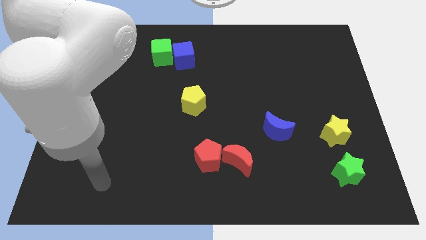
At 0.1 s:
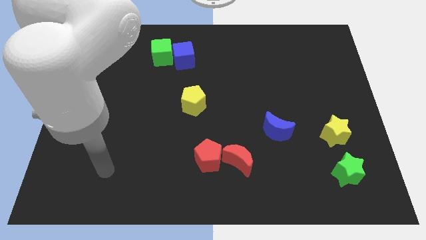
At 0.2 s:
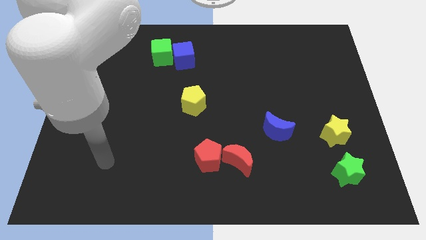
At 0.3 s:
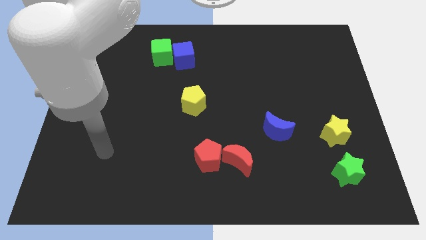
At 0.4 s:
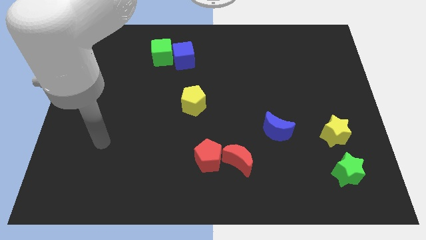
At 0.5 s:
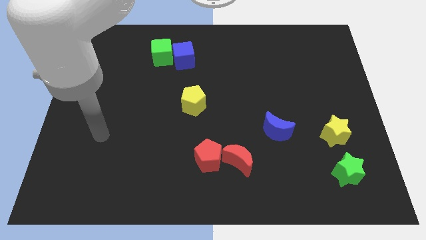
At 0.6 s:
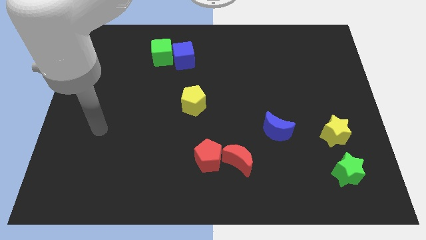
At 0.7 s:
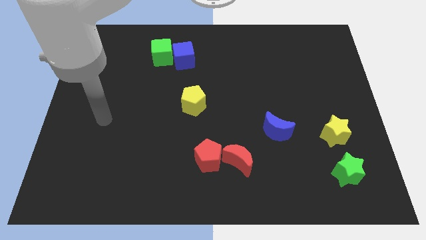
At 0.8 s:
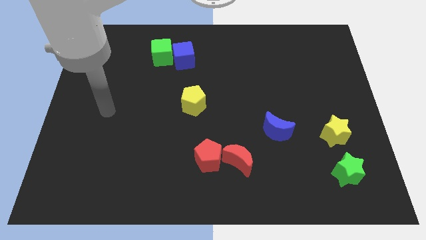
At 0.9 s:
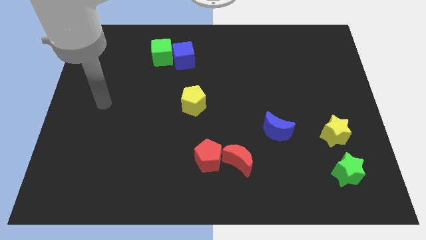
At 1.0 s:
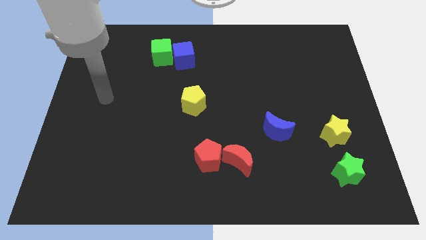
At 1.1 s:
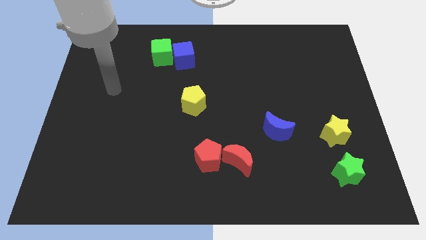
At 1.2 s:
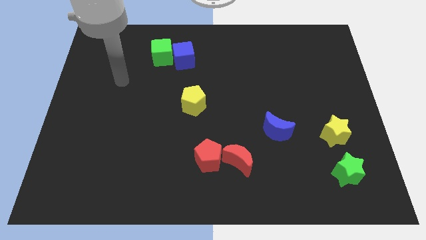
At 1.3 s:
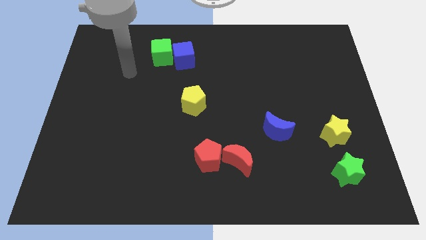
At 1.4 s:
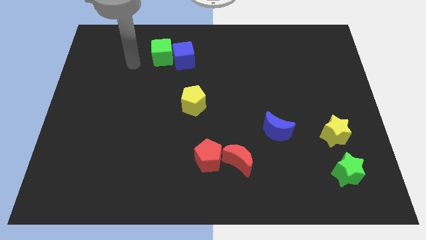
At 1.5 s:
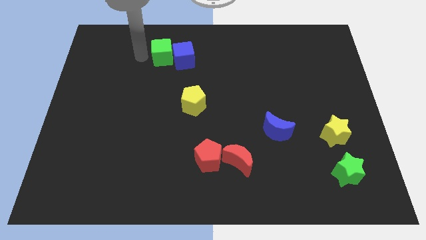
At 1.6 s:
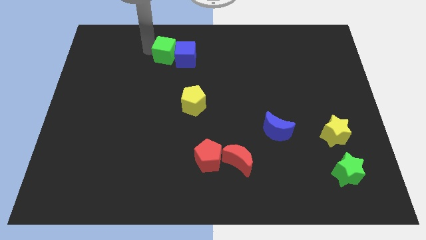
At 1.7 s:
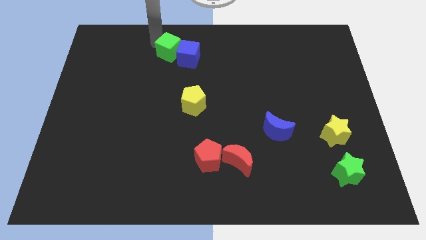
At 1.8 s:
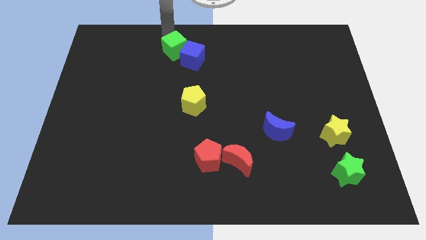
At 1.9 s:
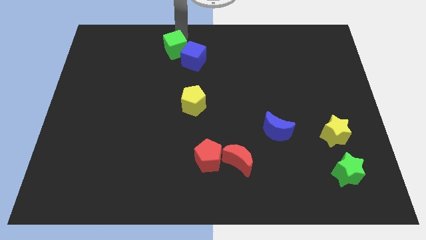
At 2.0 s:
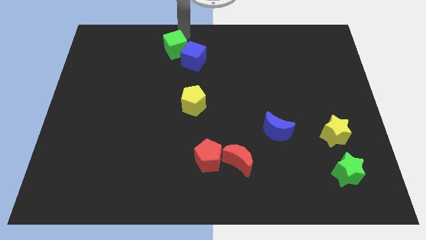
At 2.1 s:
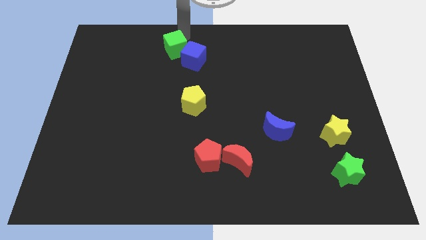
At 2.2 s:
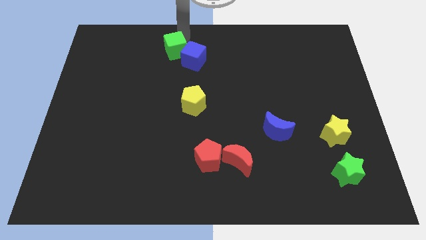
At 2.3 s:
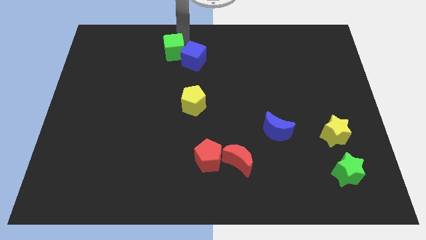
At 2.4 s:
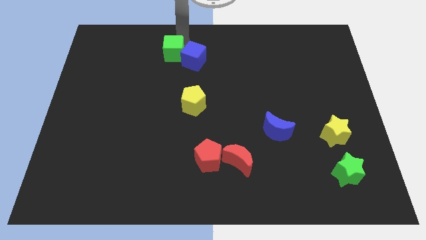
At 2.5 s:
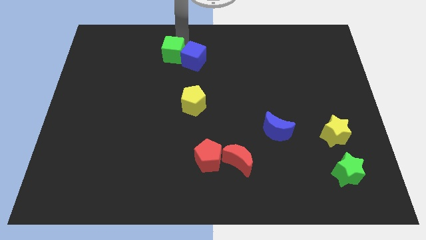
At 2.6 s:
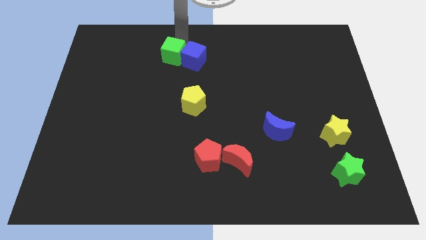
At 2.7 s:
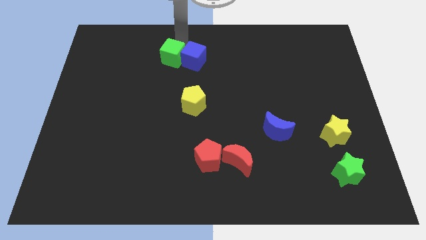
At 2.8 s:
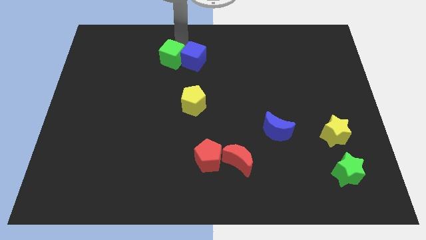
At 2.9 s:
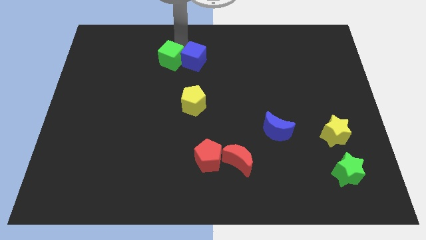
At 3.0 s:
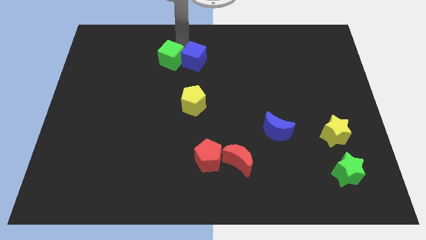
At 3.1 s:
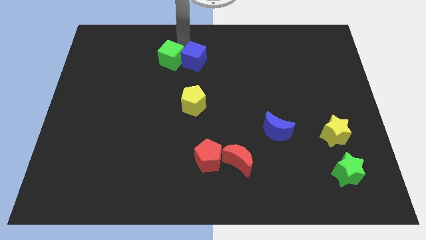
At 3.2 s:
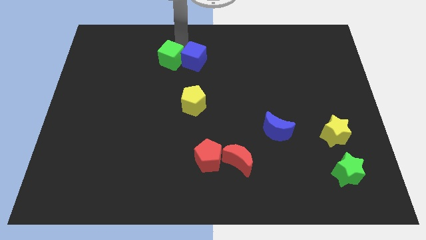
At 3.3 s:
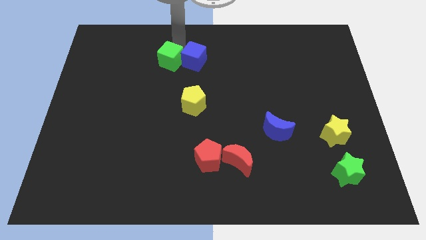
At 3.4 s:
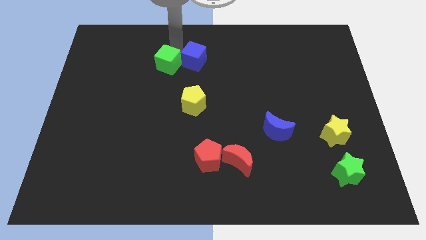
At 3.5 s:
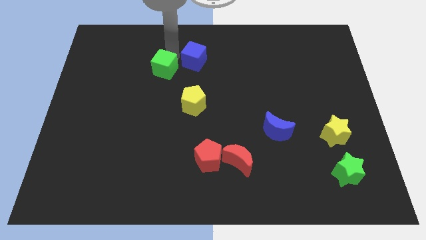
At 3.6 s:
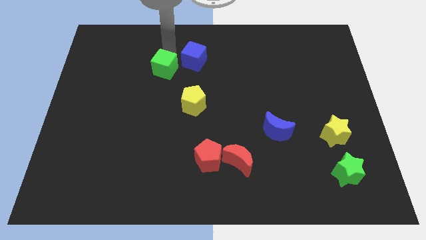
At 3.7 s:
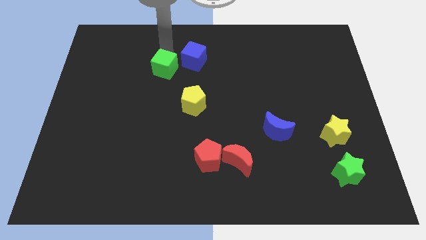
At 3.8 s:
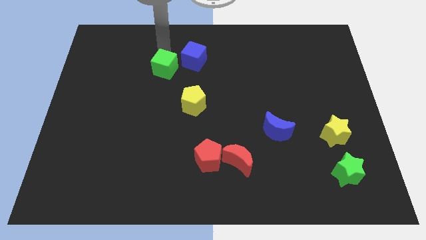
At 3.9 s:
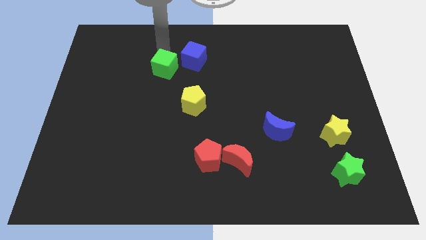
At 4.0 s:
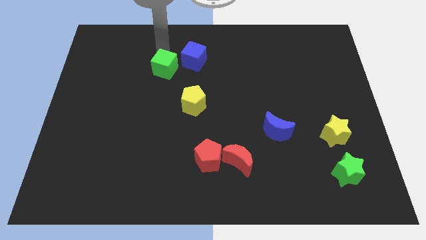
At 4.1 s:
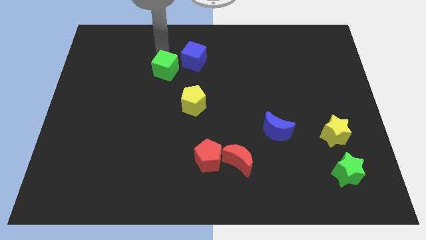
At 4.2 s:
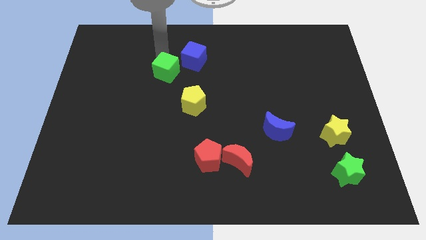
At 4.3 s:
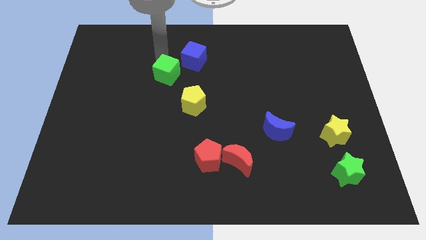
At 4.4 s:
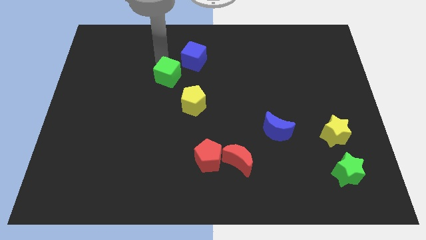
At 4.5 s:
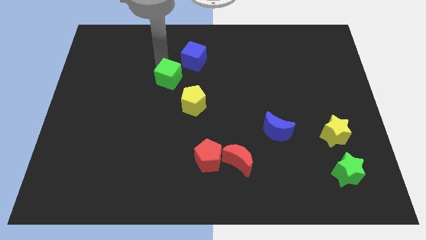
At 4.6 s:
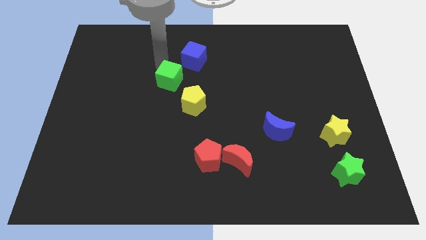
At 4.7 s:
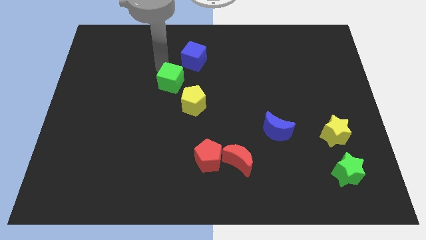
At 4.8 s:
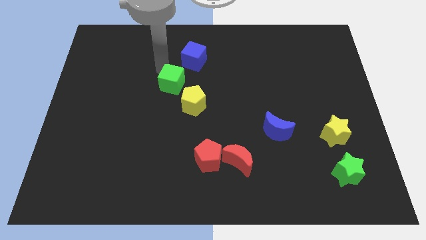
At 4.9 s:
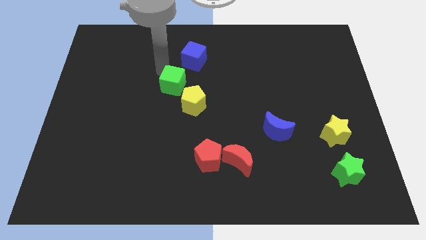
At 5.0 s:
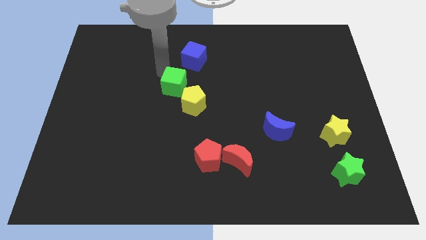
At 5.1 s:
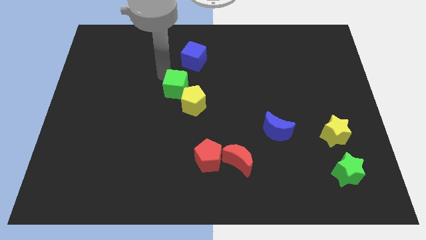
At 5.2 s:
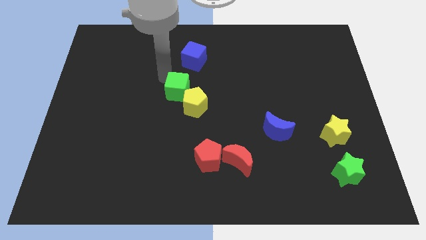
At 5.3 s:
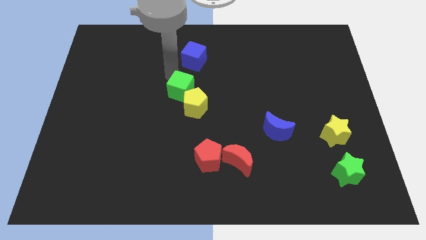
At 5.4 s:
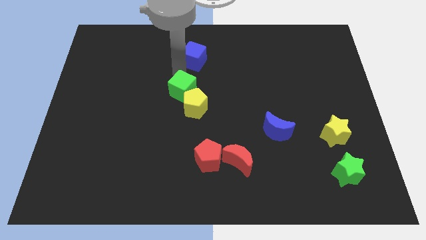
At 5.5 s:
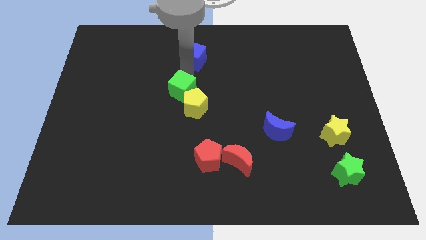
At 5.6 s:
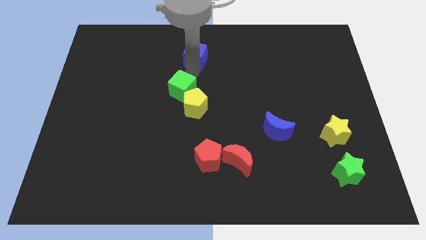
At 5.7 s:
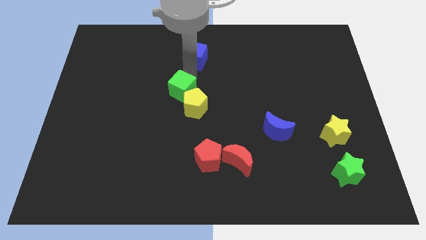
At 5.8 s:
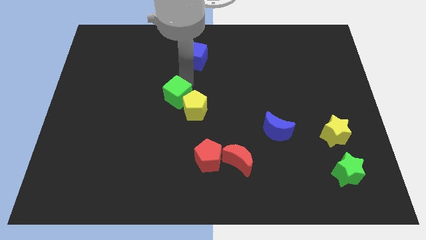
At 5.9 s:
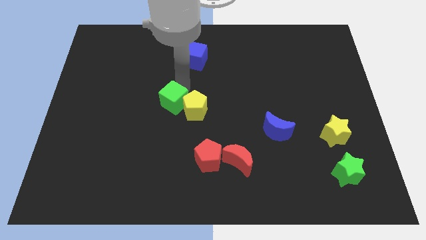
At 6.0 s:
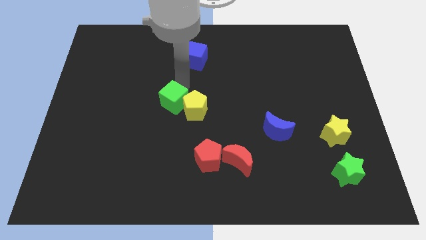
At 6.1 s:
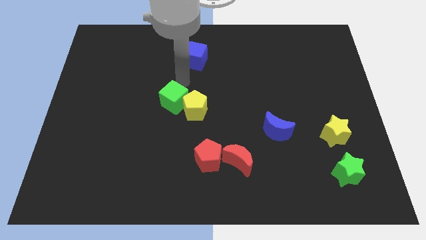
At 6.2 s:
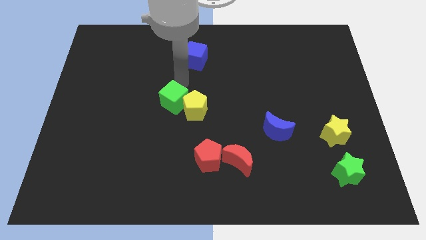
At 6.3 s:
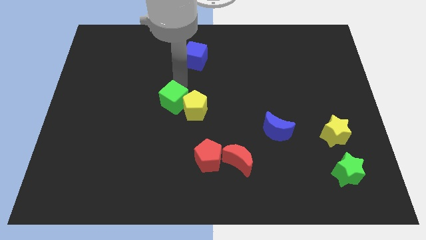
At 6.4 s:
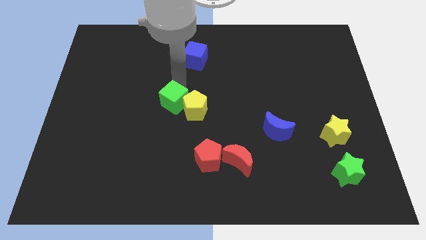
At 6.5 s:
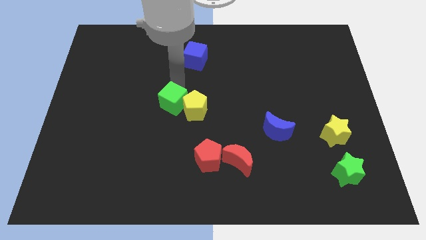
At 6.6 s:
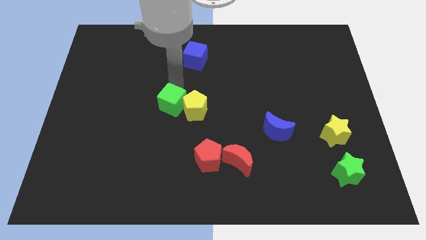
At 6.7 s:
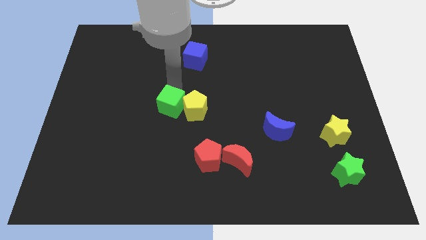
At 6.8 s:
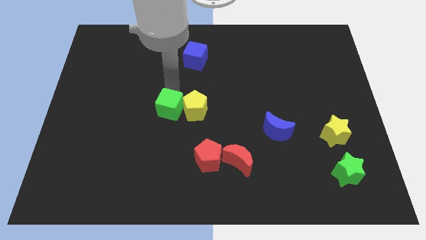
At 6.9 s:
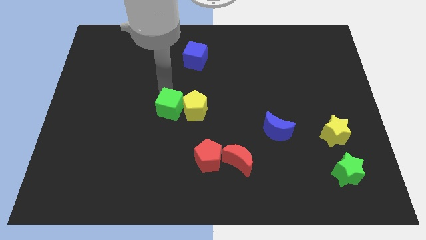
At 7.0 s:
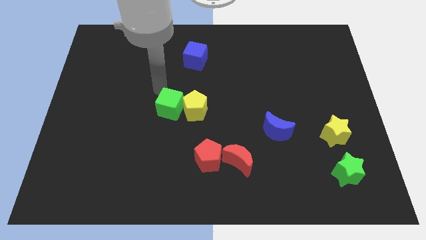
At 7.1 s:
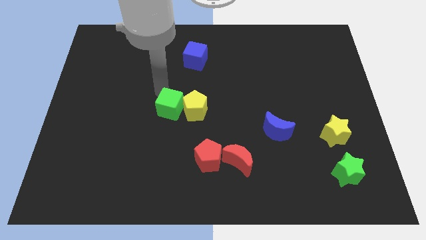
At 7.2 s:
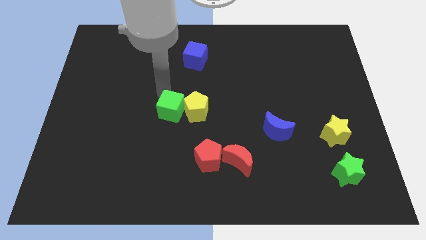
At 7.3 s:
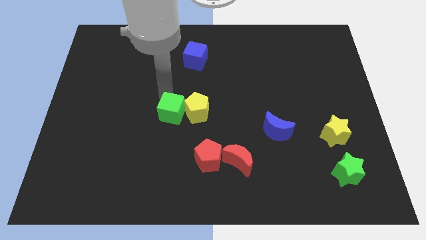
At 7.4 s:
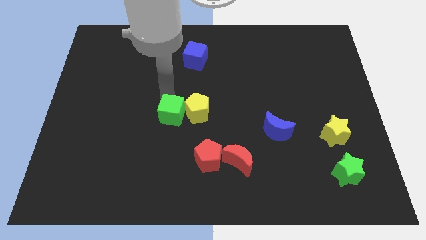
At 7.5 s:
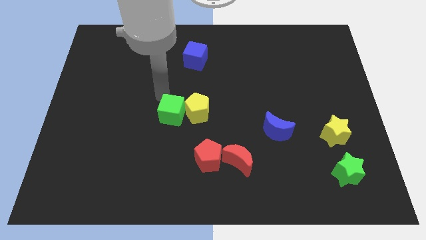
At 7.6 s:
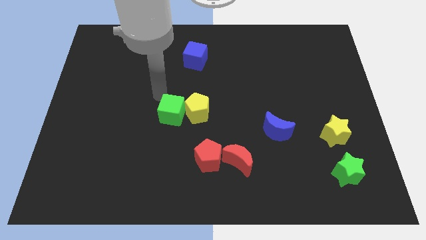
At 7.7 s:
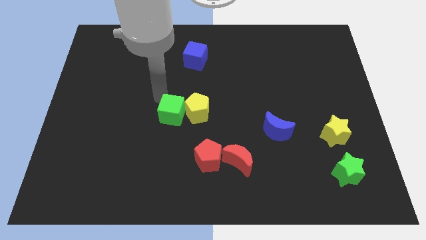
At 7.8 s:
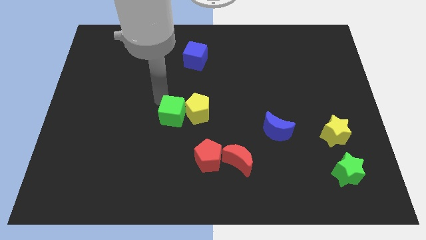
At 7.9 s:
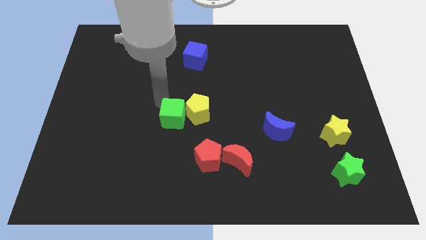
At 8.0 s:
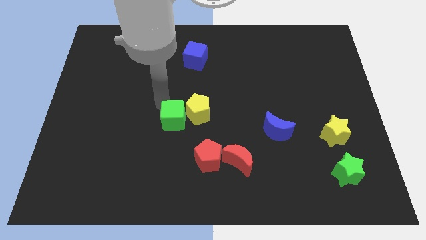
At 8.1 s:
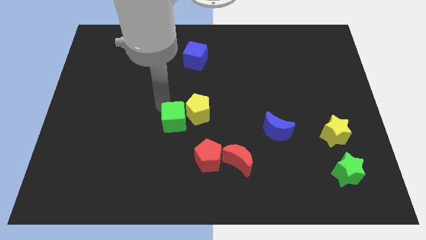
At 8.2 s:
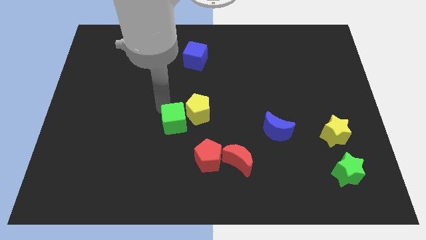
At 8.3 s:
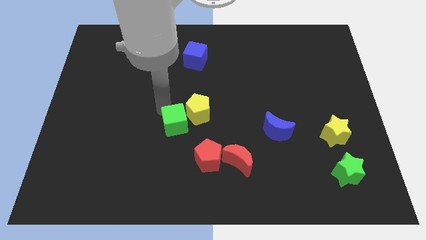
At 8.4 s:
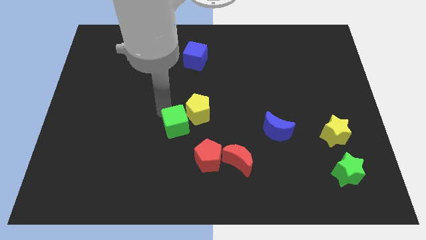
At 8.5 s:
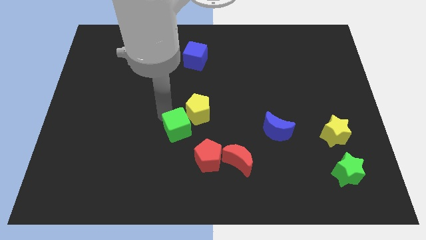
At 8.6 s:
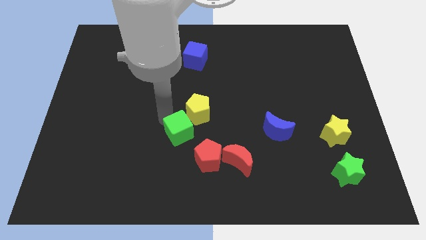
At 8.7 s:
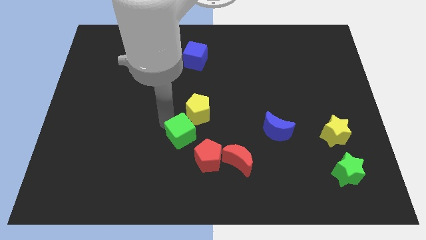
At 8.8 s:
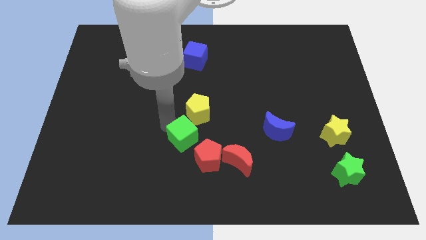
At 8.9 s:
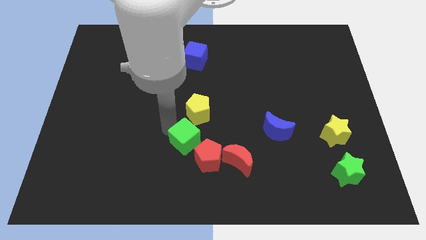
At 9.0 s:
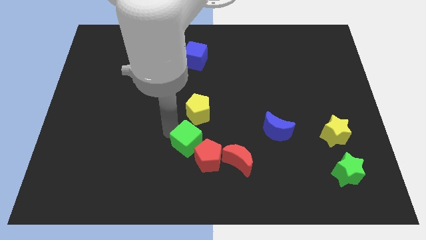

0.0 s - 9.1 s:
put the green cube close to the red pentagon
